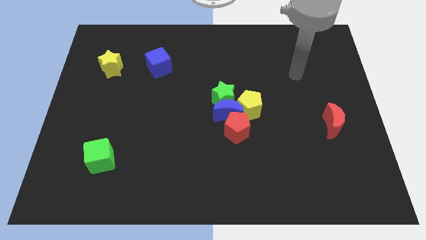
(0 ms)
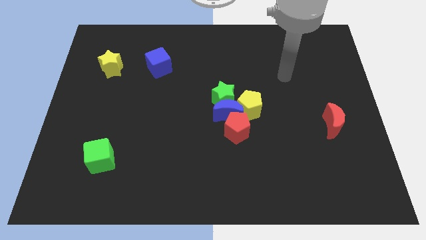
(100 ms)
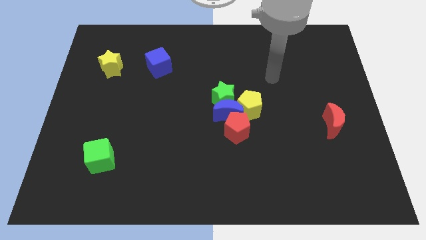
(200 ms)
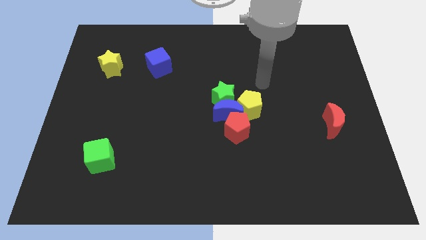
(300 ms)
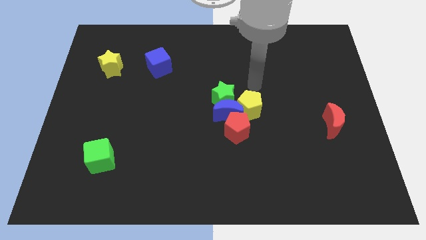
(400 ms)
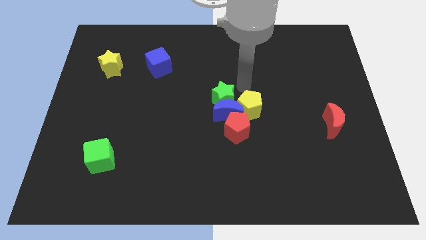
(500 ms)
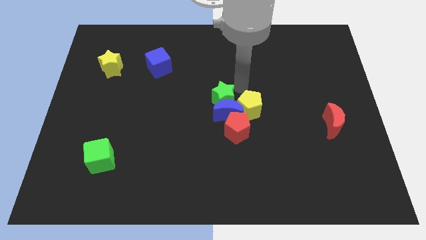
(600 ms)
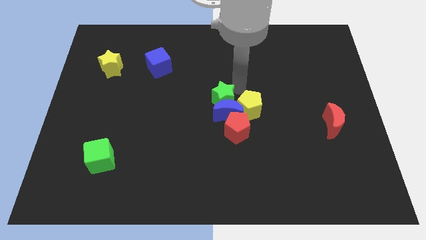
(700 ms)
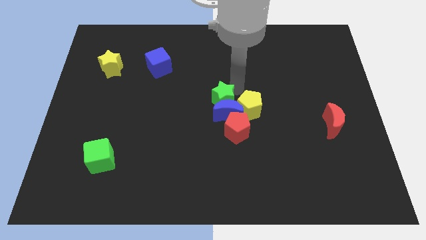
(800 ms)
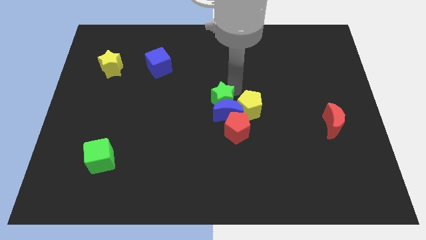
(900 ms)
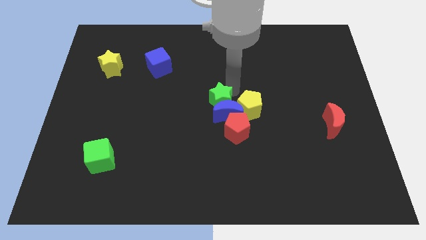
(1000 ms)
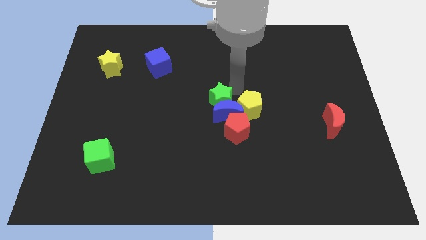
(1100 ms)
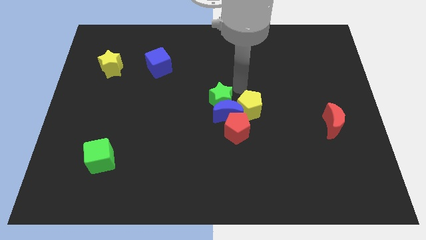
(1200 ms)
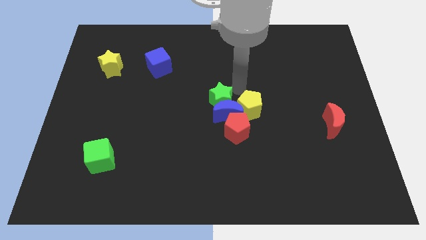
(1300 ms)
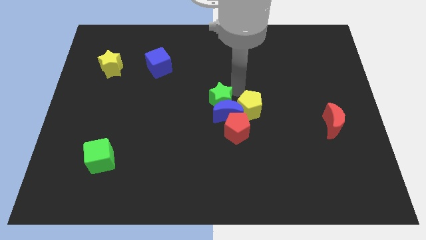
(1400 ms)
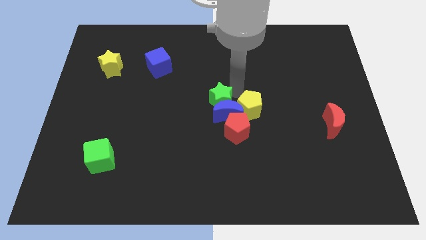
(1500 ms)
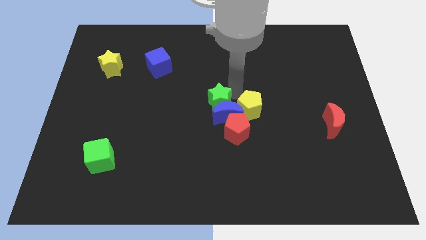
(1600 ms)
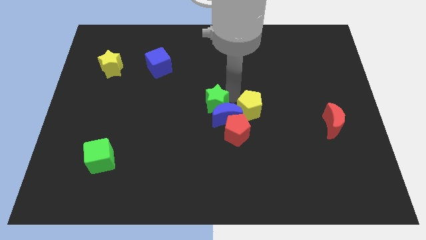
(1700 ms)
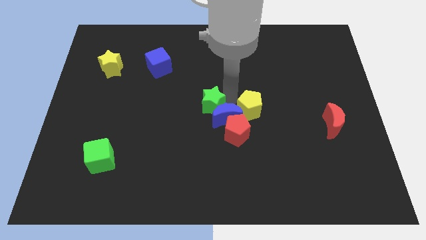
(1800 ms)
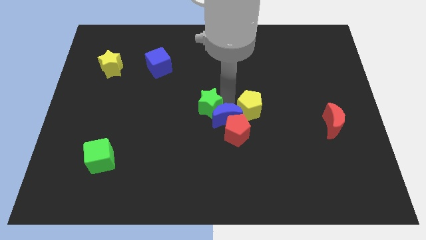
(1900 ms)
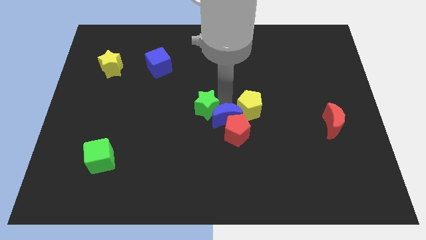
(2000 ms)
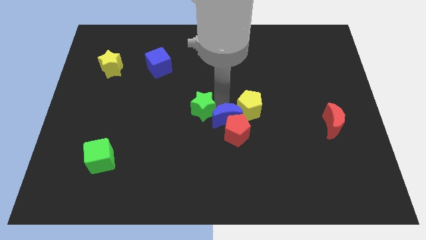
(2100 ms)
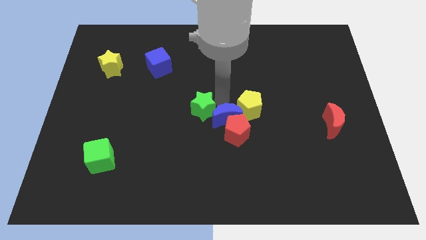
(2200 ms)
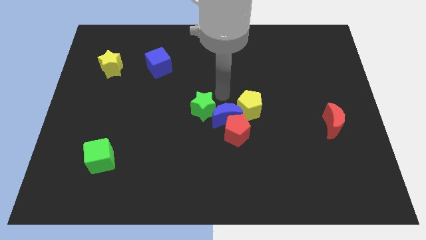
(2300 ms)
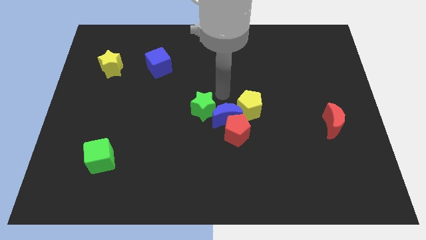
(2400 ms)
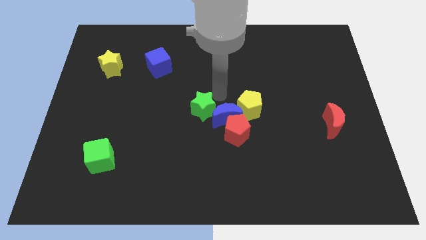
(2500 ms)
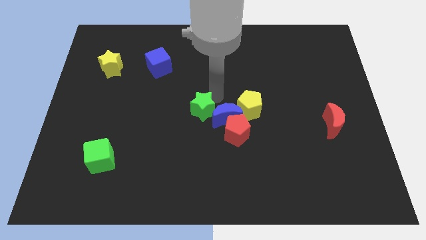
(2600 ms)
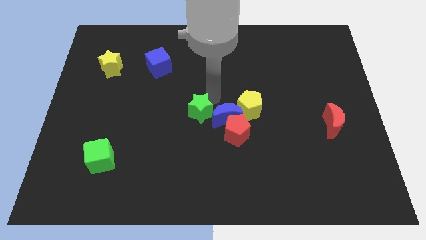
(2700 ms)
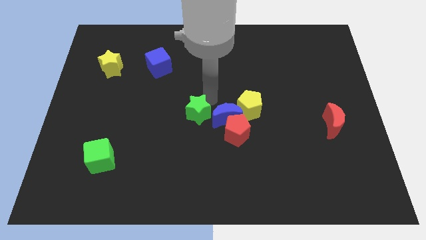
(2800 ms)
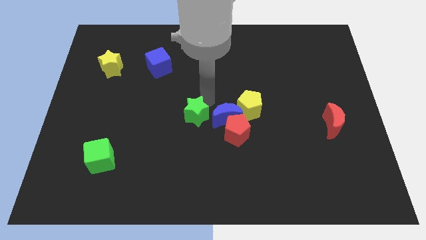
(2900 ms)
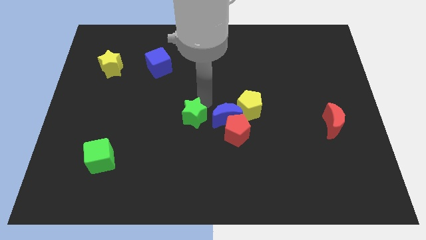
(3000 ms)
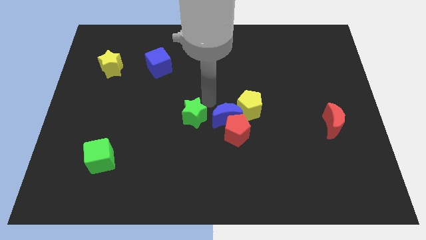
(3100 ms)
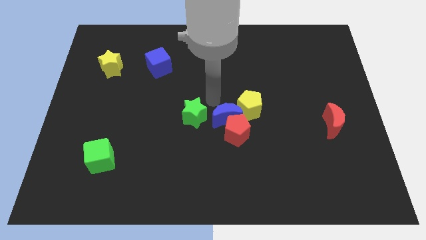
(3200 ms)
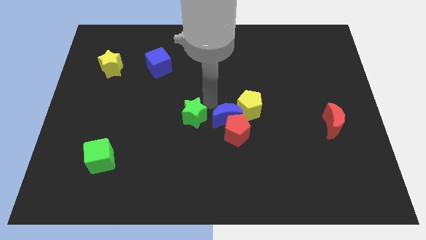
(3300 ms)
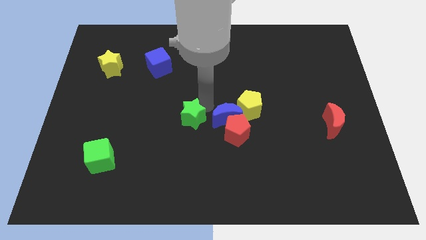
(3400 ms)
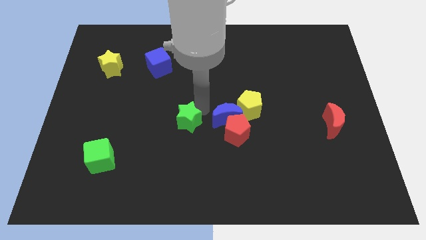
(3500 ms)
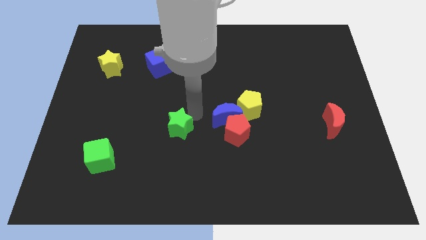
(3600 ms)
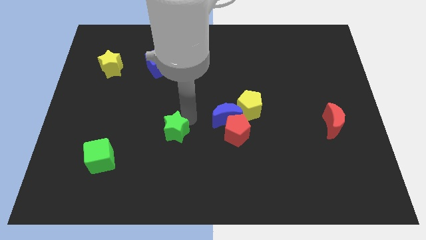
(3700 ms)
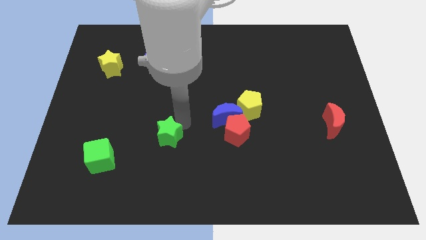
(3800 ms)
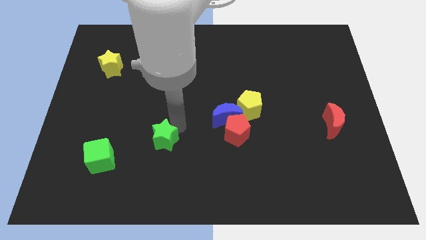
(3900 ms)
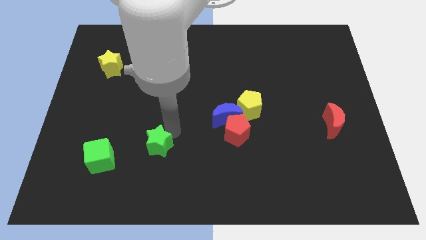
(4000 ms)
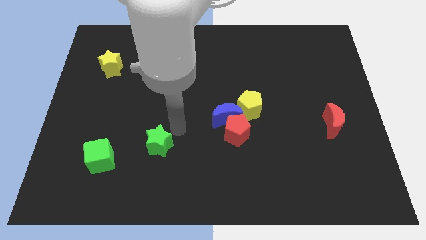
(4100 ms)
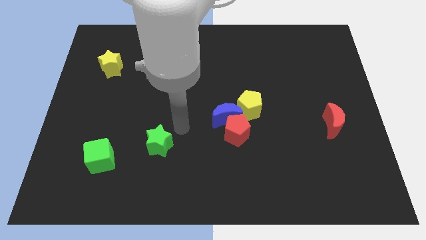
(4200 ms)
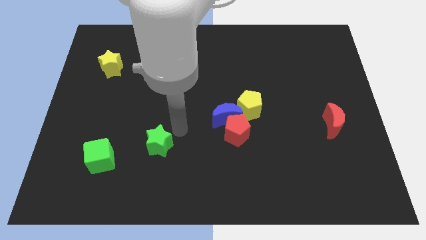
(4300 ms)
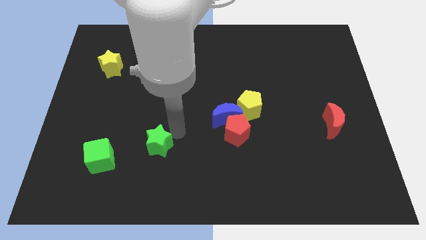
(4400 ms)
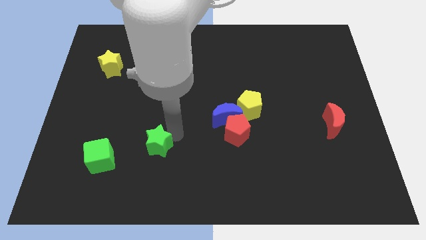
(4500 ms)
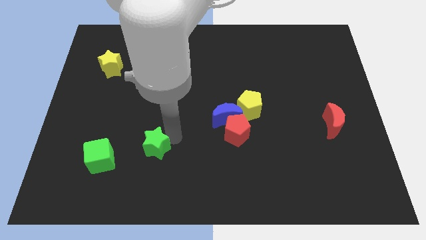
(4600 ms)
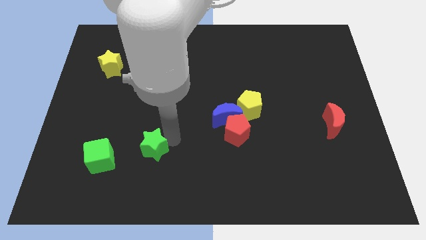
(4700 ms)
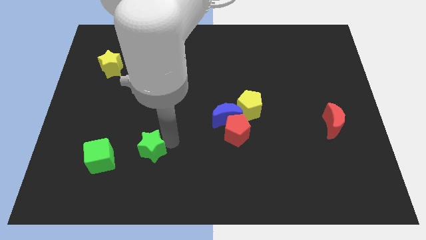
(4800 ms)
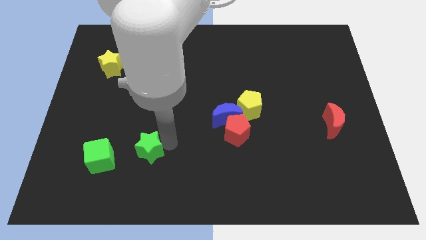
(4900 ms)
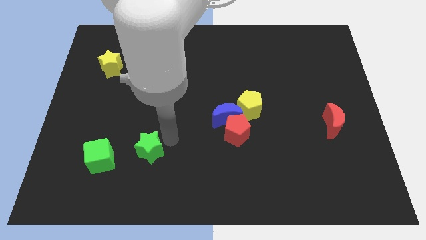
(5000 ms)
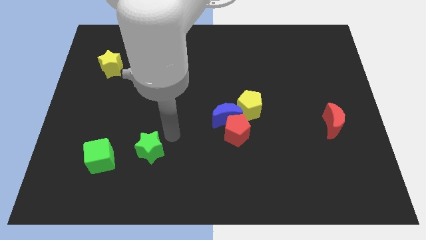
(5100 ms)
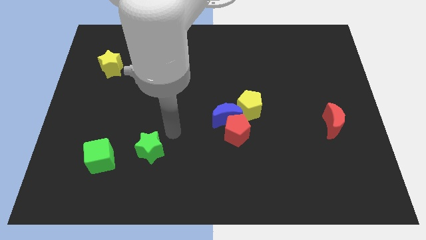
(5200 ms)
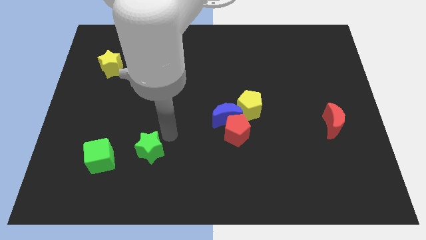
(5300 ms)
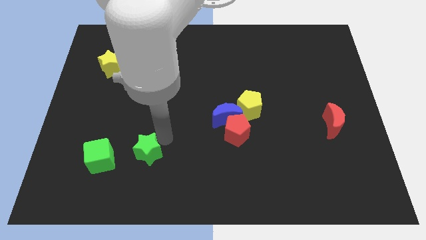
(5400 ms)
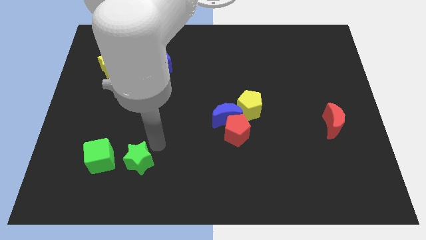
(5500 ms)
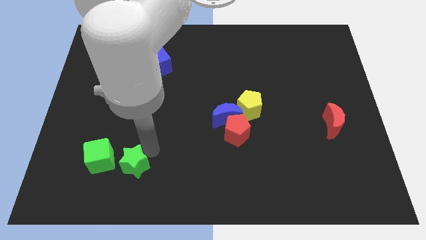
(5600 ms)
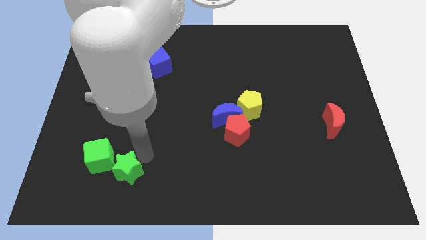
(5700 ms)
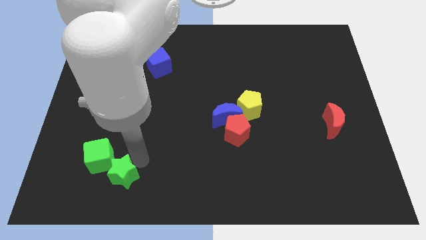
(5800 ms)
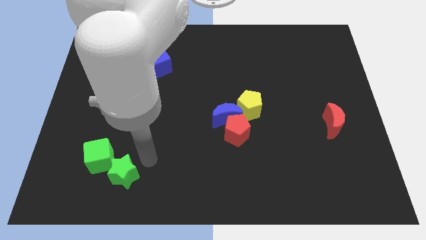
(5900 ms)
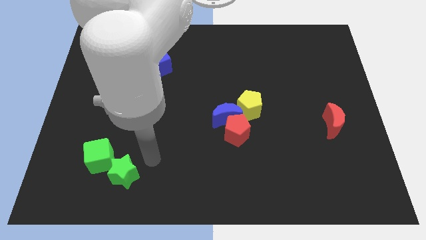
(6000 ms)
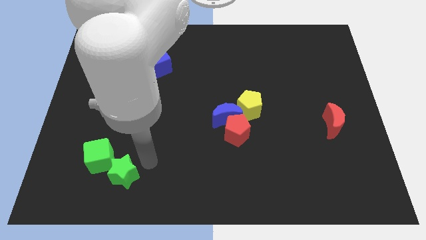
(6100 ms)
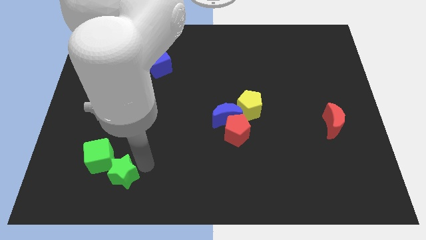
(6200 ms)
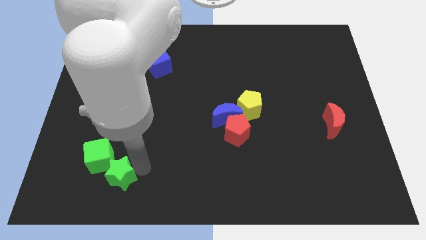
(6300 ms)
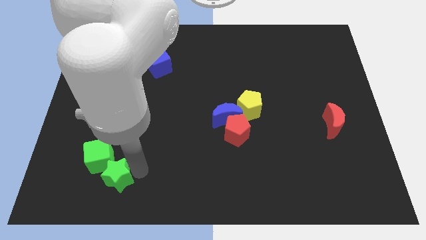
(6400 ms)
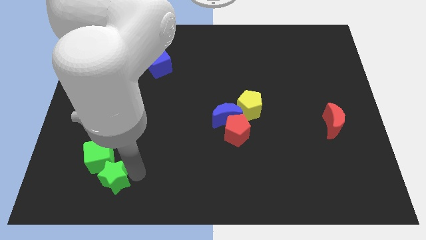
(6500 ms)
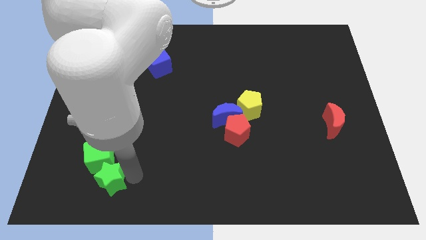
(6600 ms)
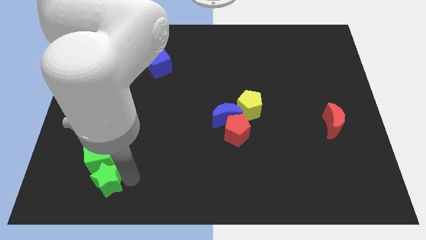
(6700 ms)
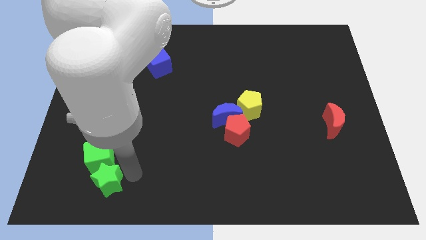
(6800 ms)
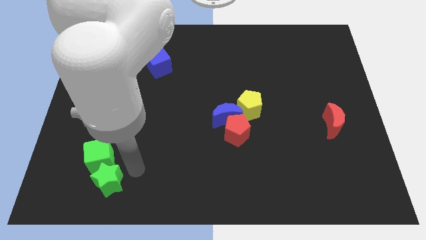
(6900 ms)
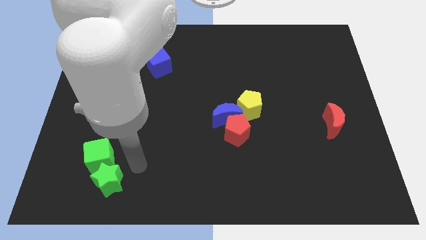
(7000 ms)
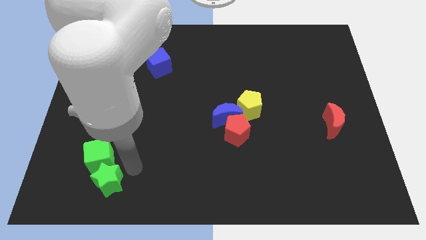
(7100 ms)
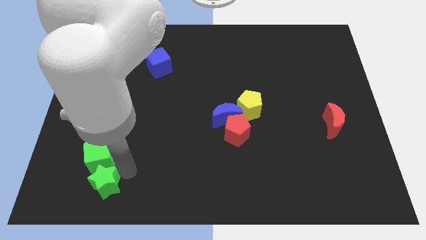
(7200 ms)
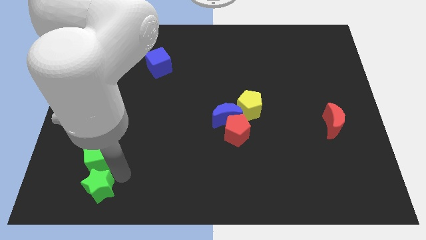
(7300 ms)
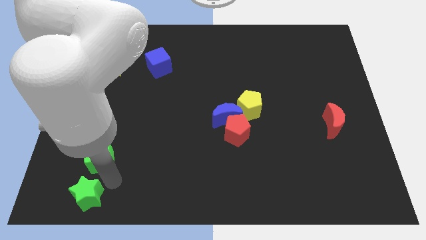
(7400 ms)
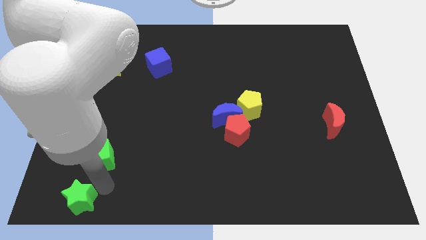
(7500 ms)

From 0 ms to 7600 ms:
push the green star to the bottom left

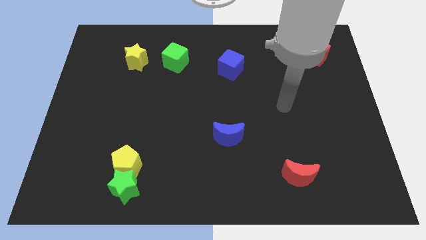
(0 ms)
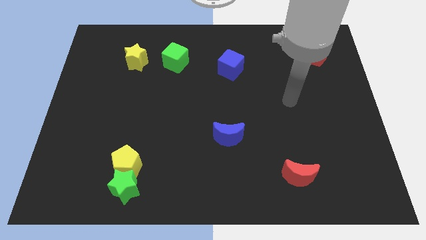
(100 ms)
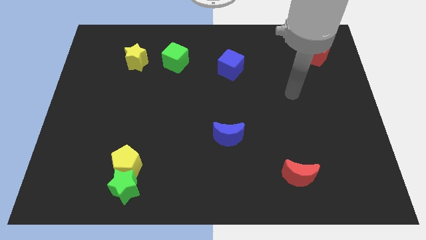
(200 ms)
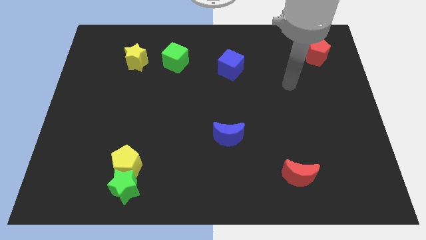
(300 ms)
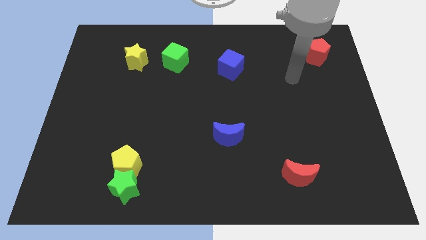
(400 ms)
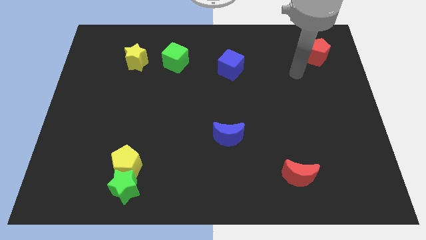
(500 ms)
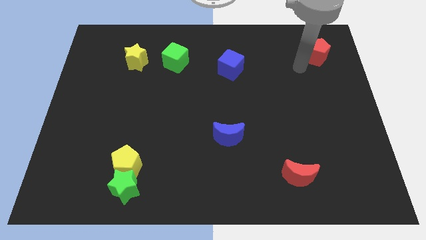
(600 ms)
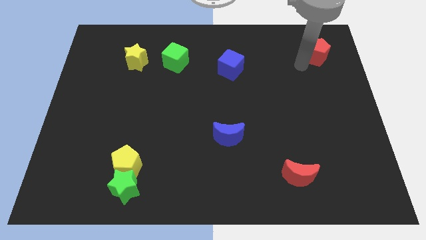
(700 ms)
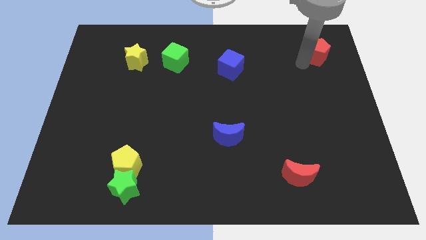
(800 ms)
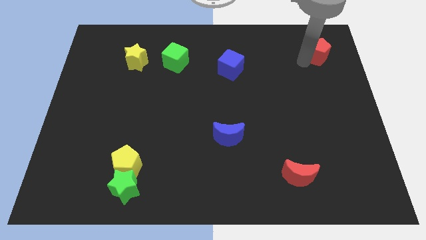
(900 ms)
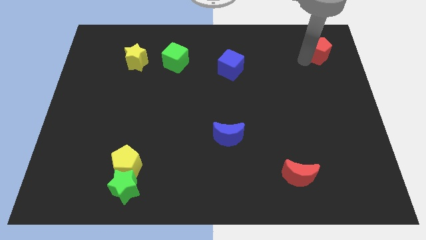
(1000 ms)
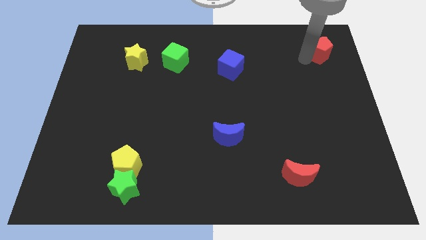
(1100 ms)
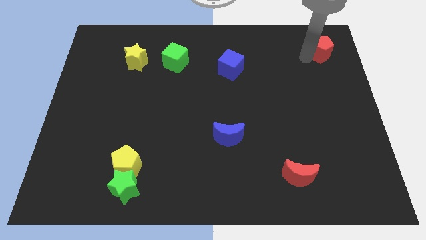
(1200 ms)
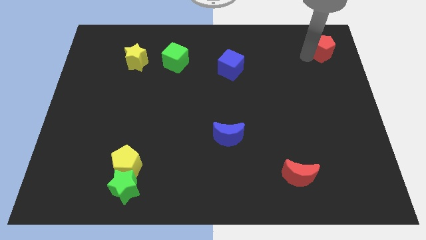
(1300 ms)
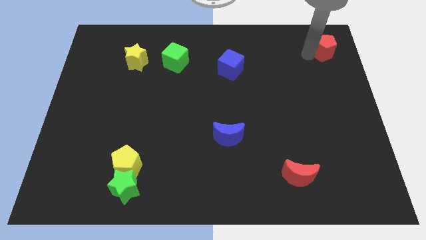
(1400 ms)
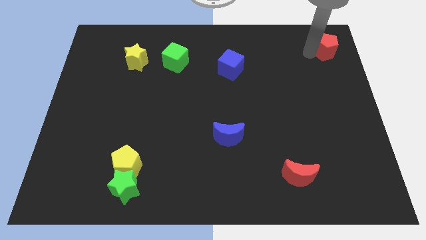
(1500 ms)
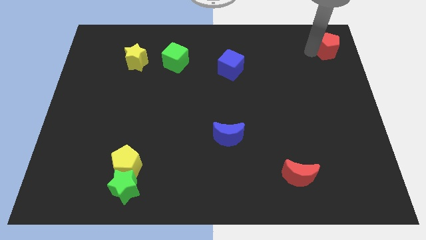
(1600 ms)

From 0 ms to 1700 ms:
slide the red pentagon to the top right of the board
